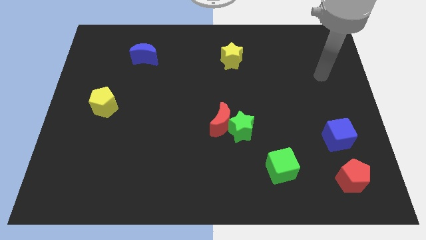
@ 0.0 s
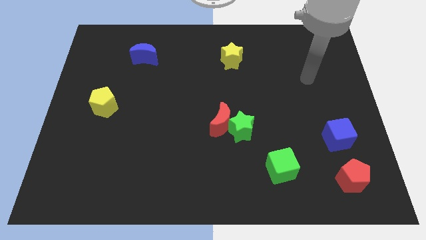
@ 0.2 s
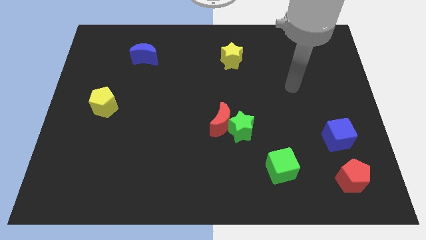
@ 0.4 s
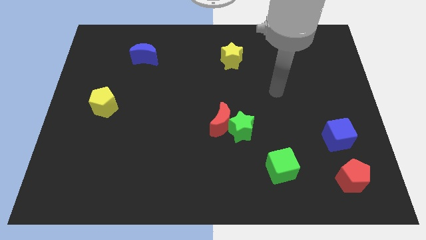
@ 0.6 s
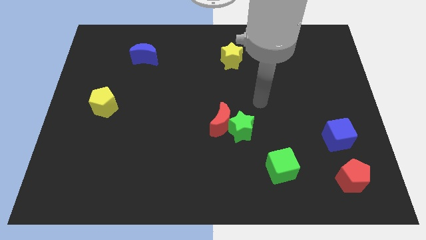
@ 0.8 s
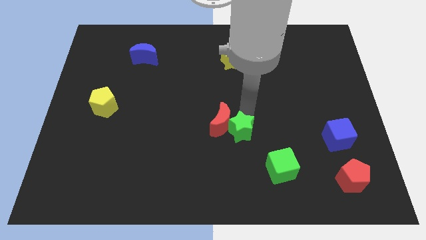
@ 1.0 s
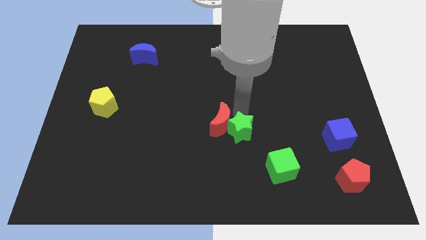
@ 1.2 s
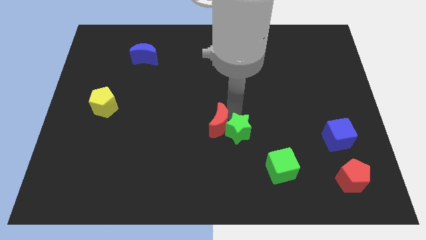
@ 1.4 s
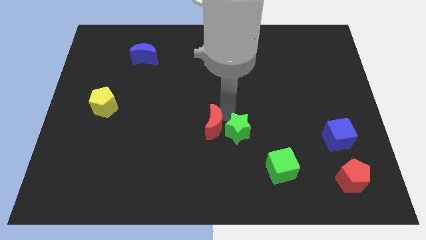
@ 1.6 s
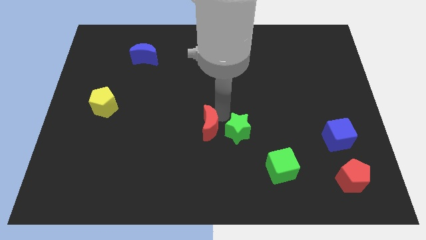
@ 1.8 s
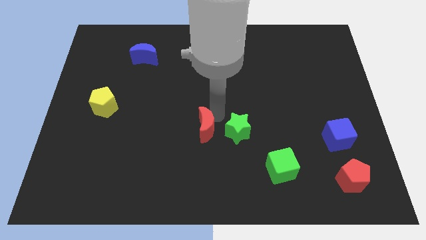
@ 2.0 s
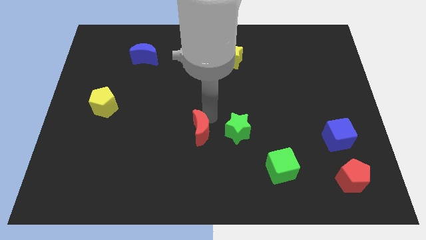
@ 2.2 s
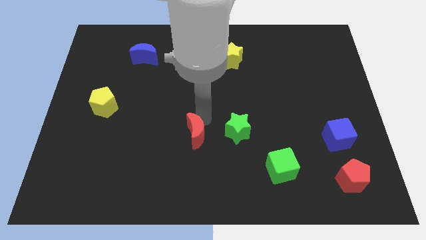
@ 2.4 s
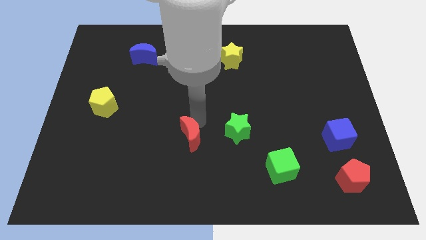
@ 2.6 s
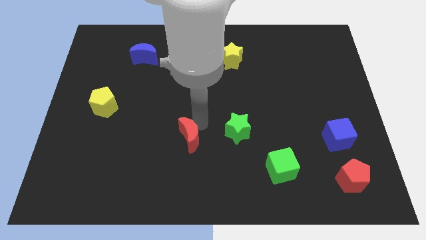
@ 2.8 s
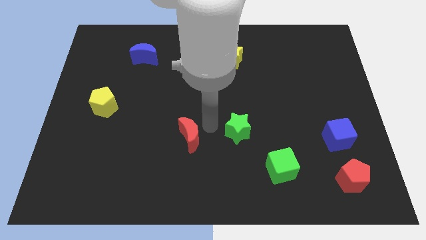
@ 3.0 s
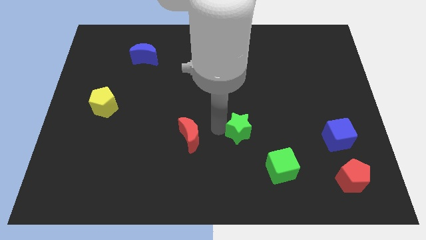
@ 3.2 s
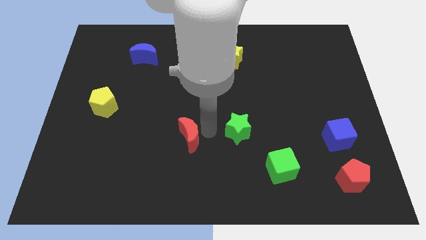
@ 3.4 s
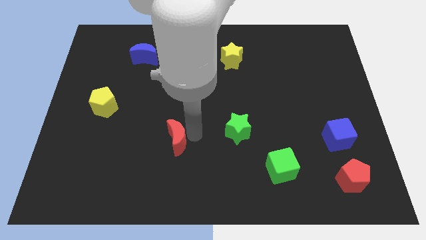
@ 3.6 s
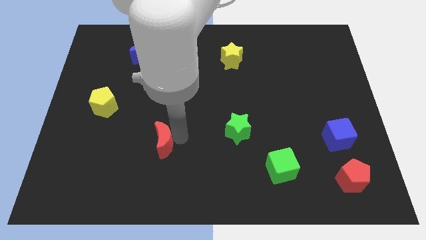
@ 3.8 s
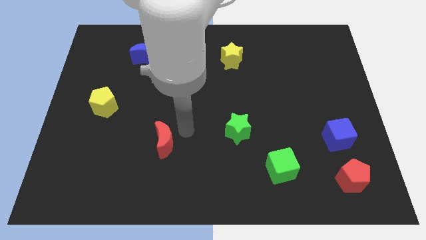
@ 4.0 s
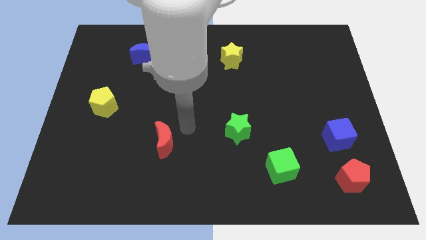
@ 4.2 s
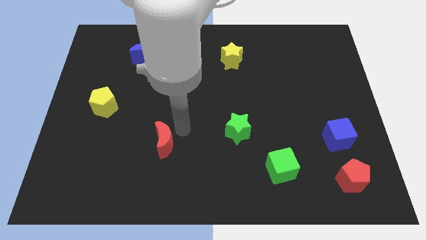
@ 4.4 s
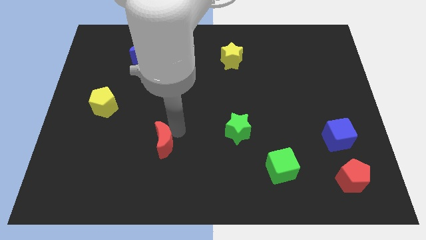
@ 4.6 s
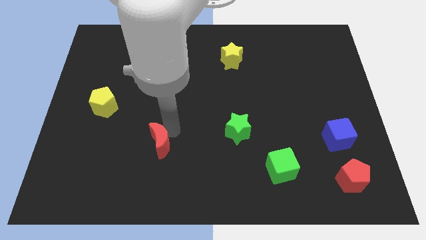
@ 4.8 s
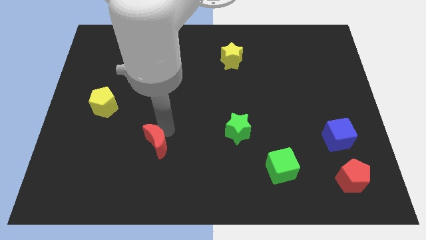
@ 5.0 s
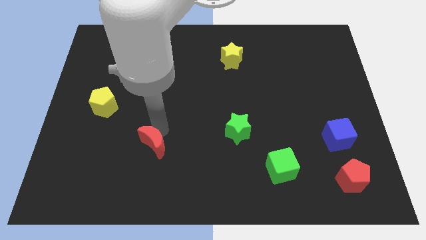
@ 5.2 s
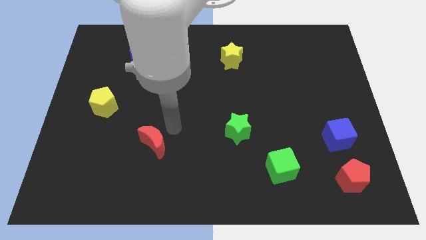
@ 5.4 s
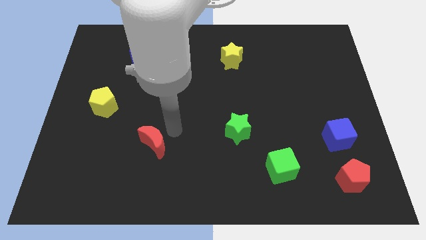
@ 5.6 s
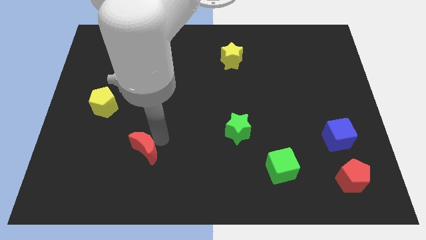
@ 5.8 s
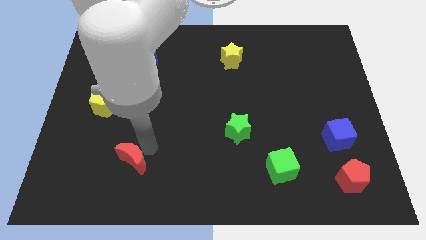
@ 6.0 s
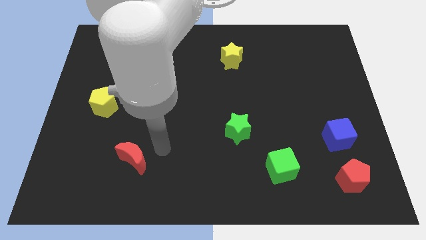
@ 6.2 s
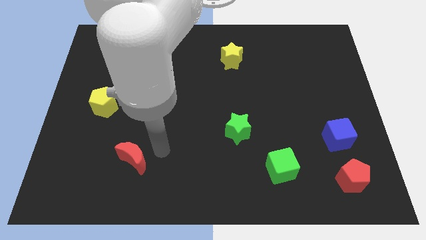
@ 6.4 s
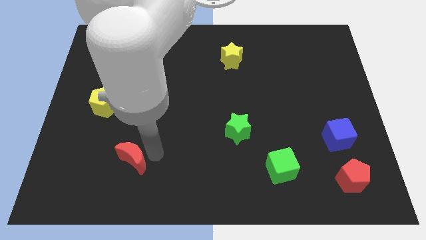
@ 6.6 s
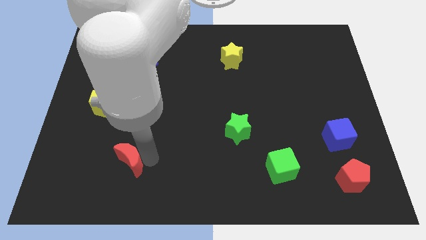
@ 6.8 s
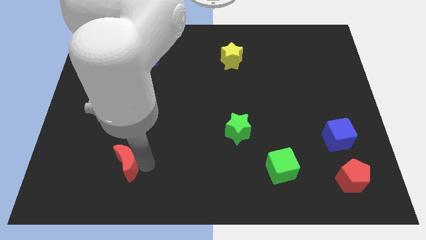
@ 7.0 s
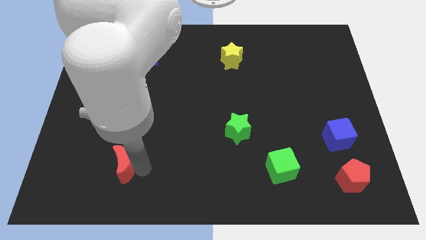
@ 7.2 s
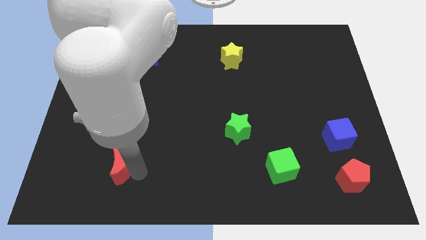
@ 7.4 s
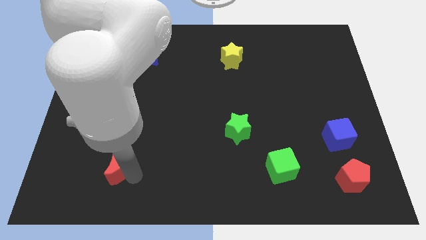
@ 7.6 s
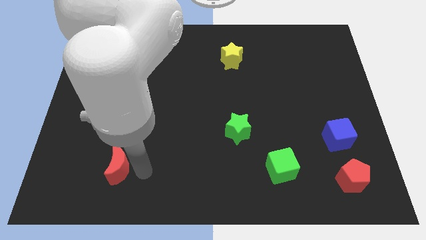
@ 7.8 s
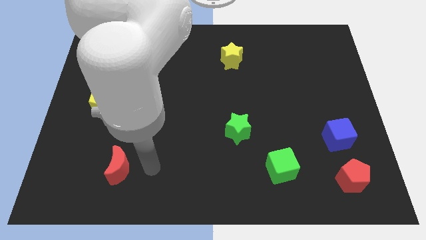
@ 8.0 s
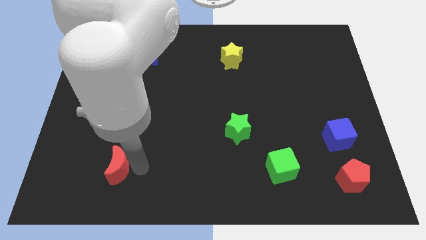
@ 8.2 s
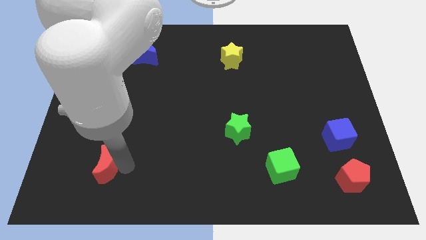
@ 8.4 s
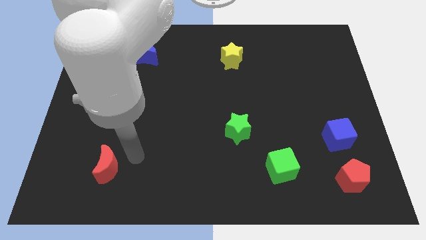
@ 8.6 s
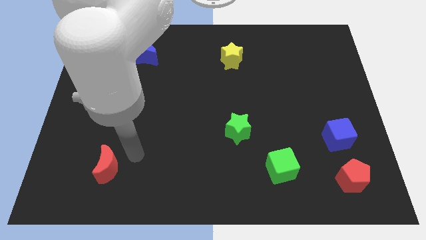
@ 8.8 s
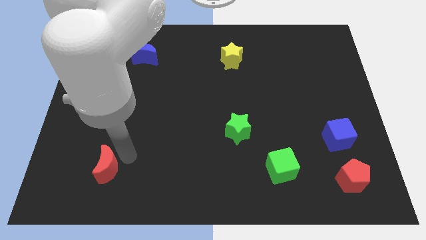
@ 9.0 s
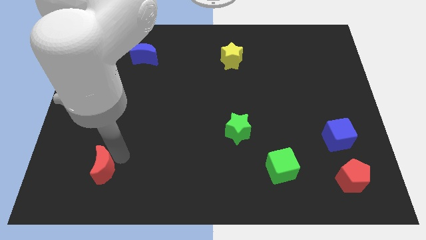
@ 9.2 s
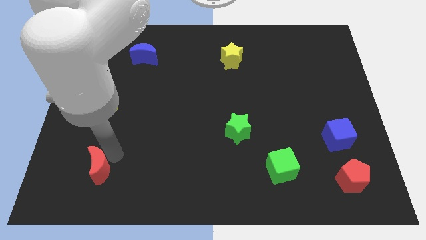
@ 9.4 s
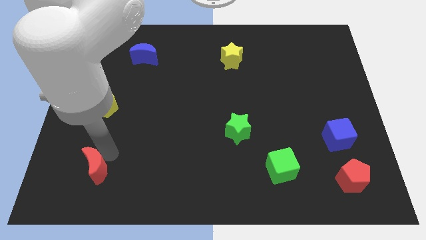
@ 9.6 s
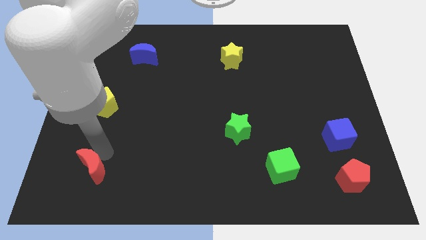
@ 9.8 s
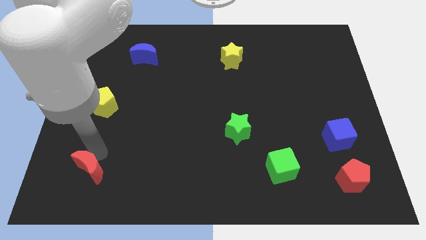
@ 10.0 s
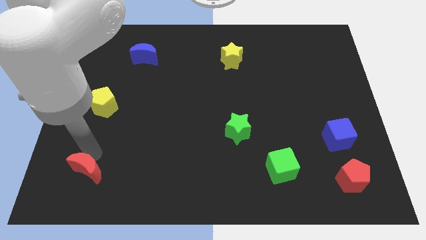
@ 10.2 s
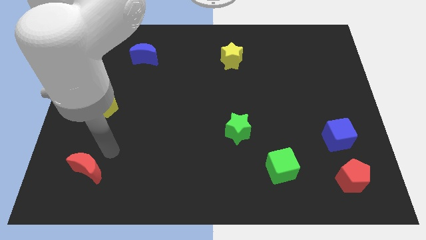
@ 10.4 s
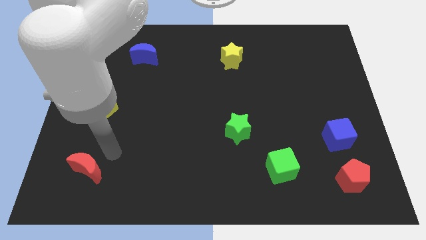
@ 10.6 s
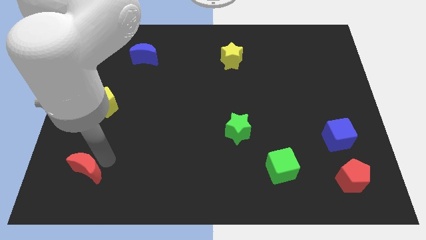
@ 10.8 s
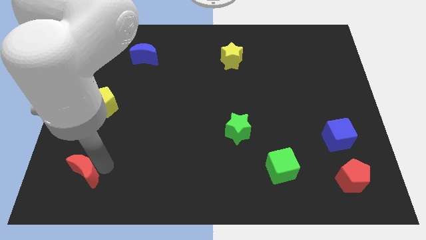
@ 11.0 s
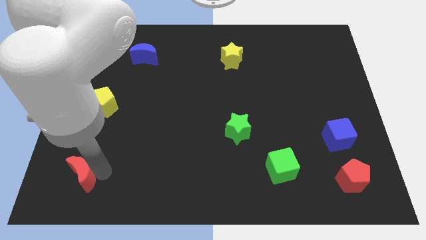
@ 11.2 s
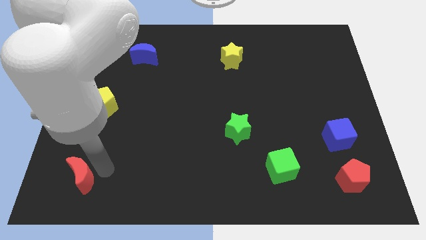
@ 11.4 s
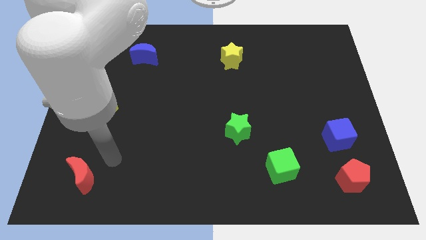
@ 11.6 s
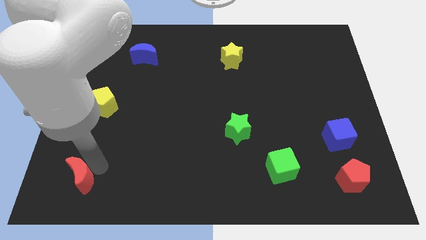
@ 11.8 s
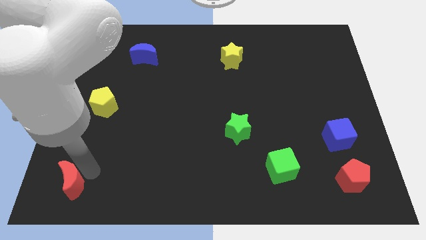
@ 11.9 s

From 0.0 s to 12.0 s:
push the red moon to the bottom left corner

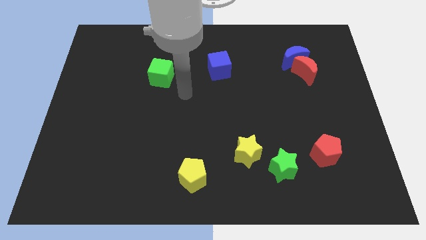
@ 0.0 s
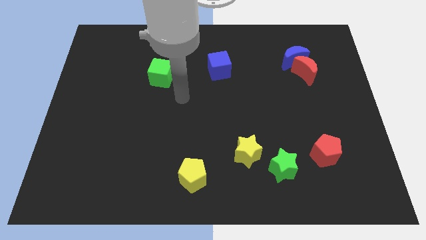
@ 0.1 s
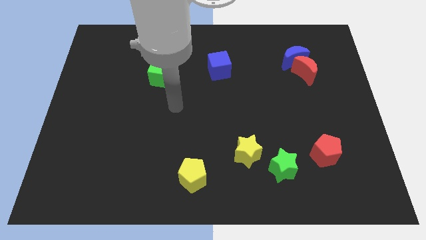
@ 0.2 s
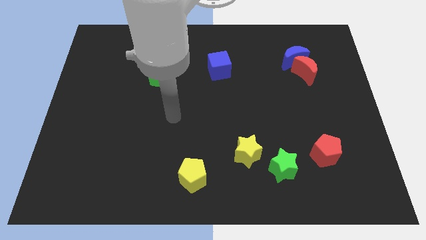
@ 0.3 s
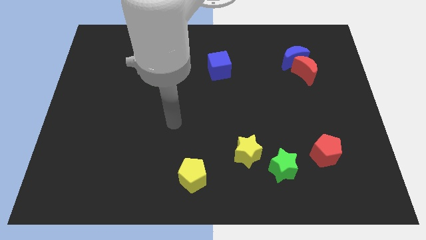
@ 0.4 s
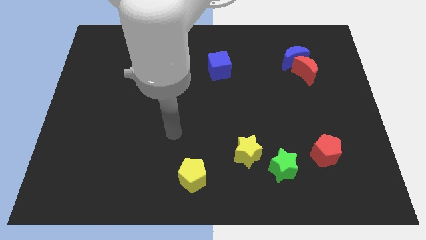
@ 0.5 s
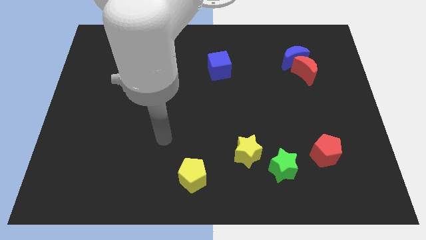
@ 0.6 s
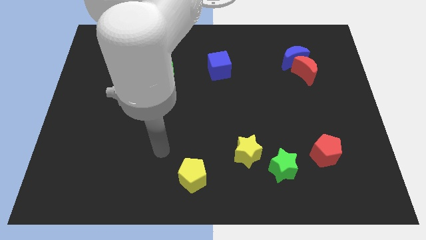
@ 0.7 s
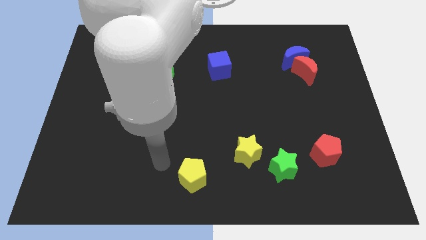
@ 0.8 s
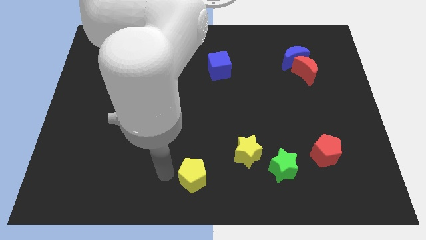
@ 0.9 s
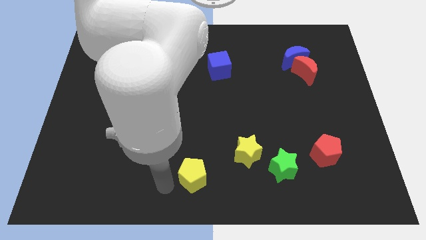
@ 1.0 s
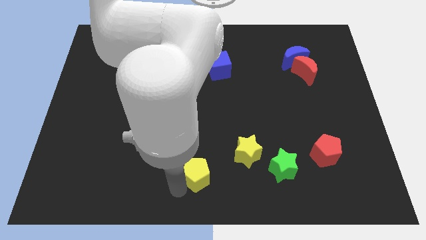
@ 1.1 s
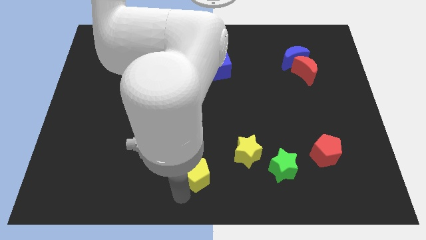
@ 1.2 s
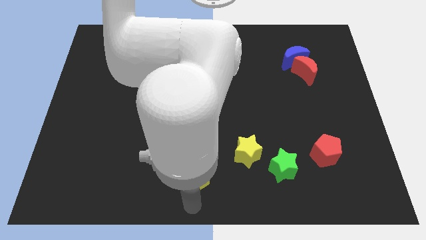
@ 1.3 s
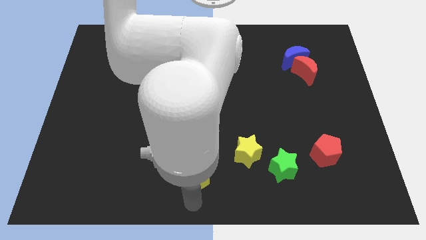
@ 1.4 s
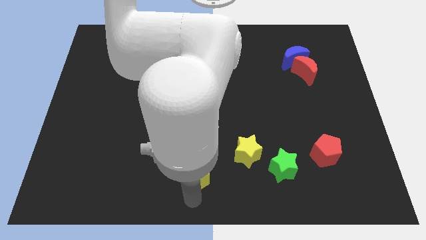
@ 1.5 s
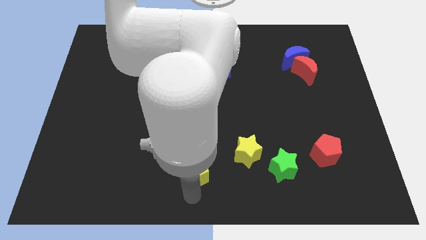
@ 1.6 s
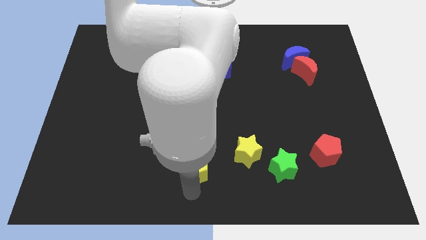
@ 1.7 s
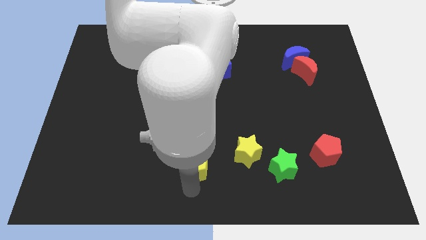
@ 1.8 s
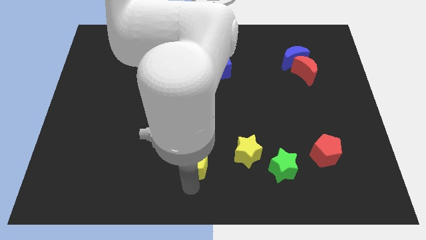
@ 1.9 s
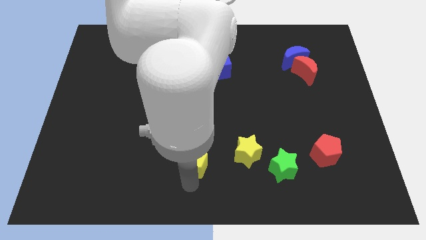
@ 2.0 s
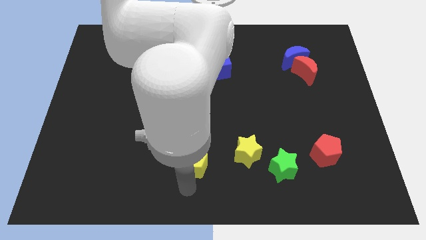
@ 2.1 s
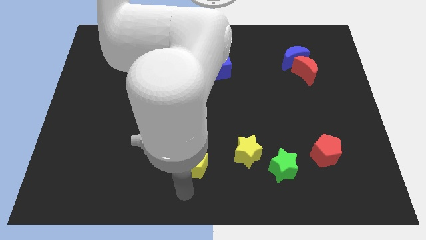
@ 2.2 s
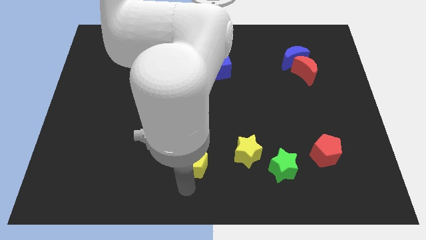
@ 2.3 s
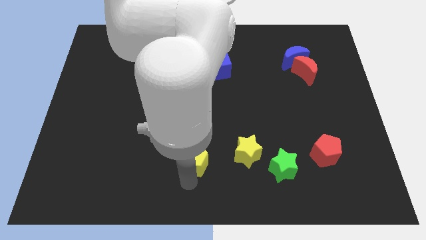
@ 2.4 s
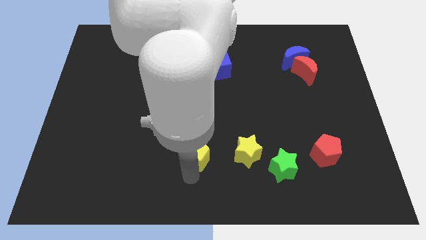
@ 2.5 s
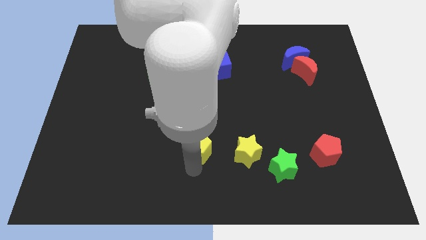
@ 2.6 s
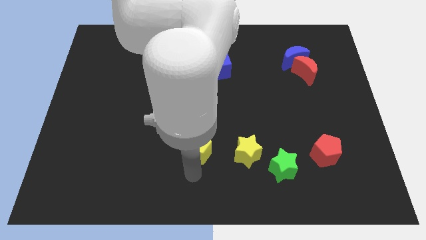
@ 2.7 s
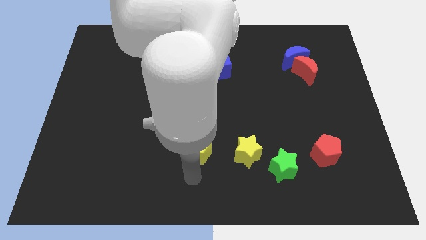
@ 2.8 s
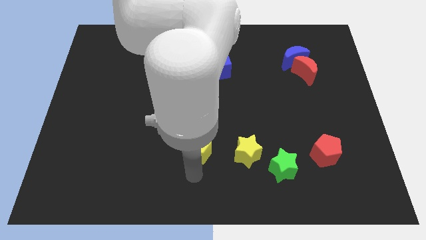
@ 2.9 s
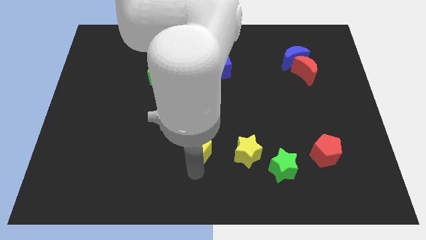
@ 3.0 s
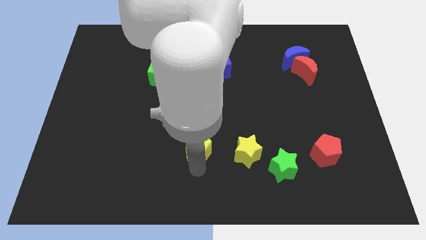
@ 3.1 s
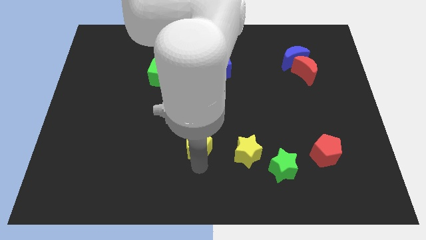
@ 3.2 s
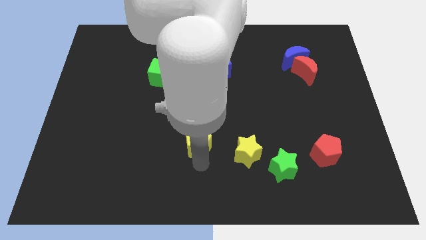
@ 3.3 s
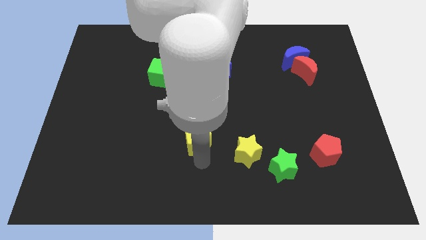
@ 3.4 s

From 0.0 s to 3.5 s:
put the yellow pentagon to the middle of the board
